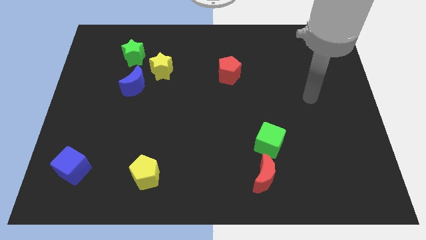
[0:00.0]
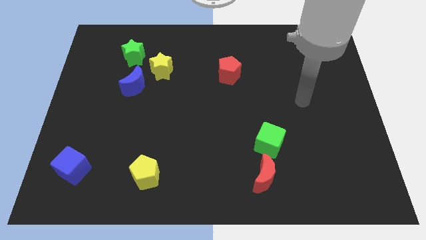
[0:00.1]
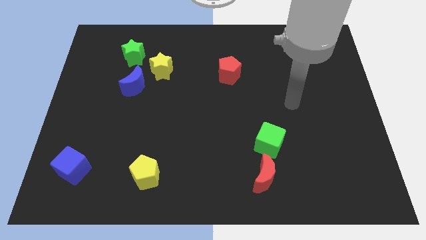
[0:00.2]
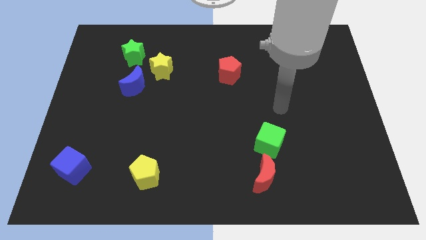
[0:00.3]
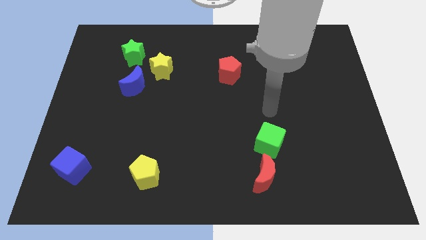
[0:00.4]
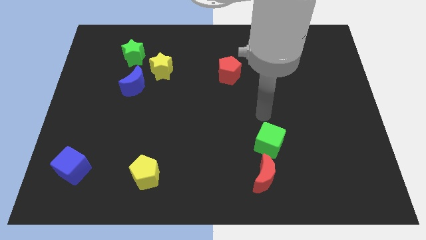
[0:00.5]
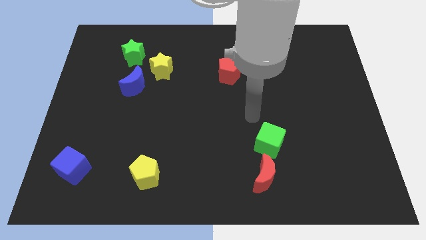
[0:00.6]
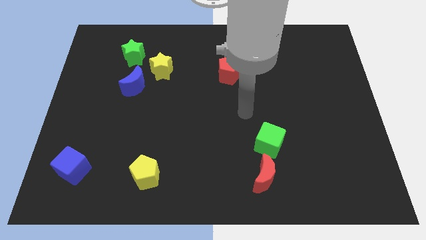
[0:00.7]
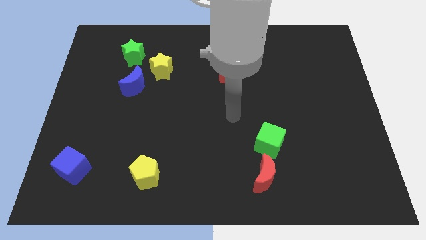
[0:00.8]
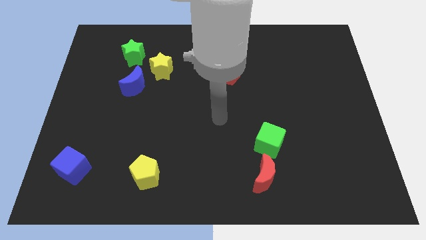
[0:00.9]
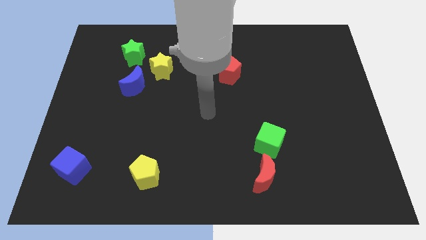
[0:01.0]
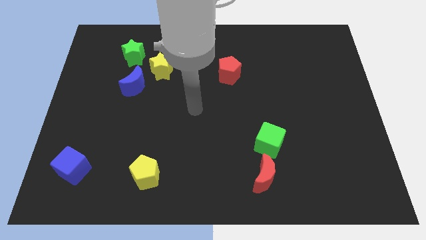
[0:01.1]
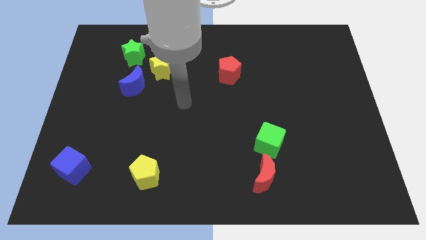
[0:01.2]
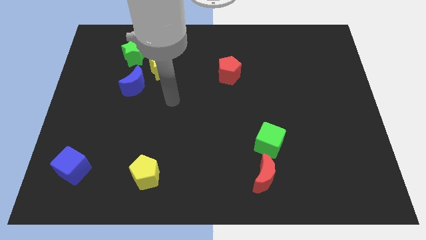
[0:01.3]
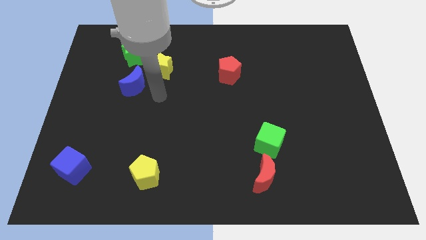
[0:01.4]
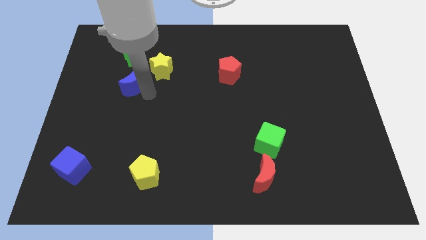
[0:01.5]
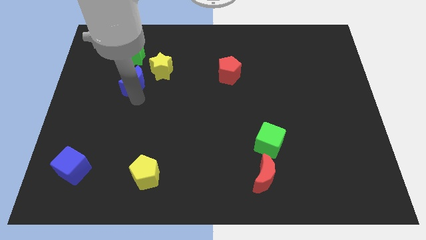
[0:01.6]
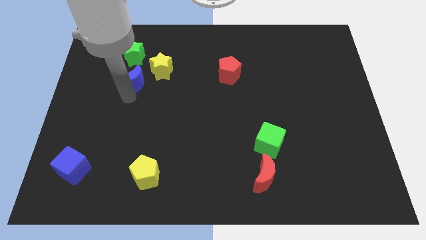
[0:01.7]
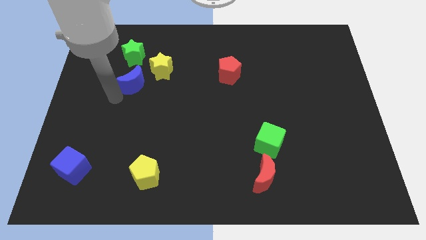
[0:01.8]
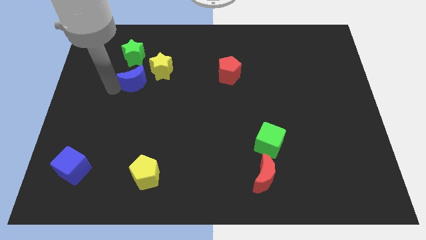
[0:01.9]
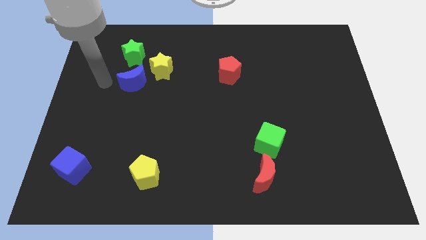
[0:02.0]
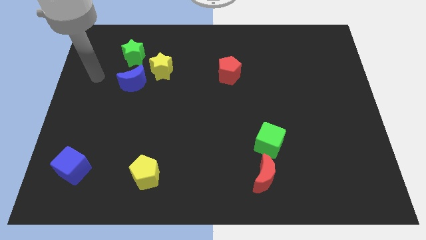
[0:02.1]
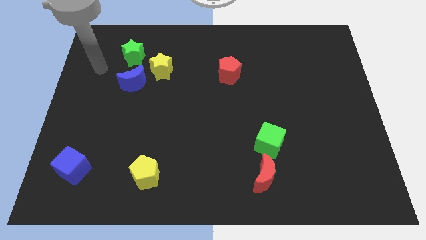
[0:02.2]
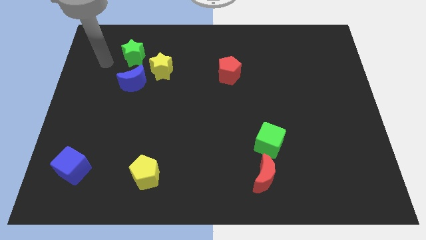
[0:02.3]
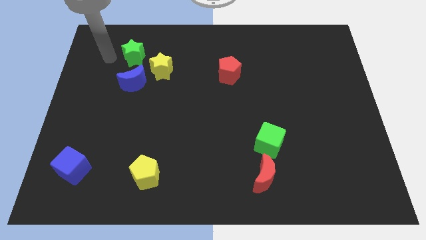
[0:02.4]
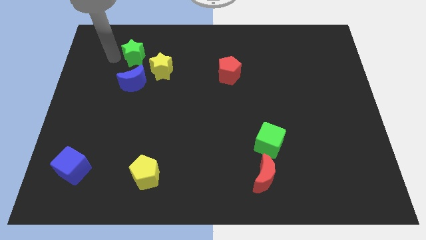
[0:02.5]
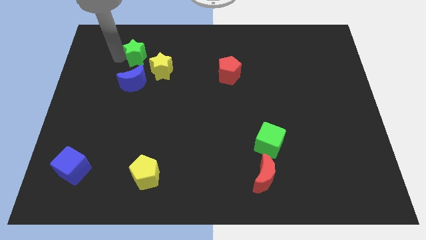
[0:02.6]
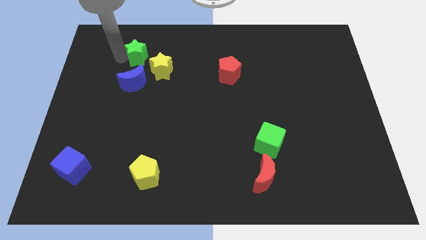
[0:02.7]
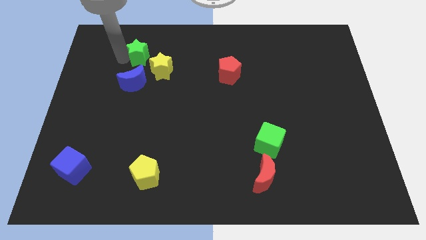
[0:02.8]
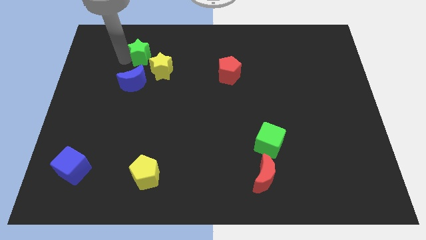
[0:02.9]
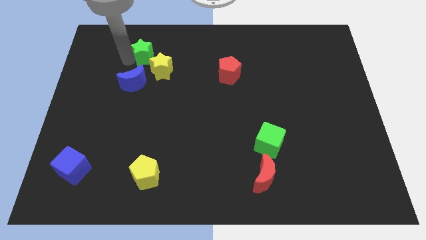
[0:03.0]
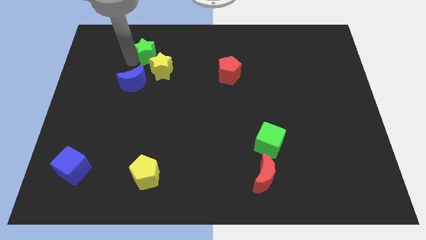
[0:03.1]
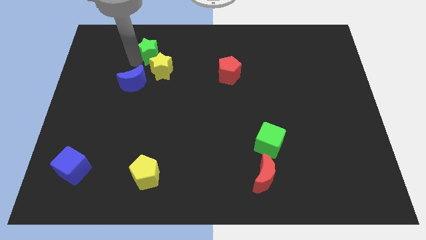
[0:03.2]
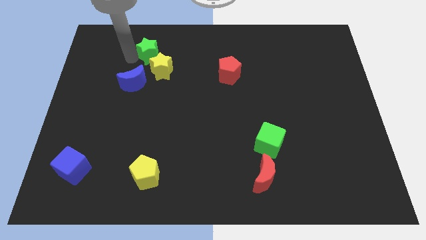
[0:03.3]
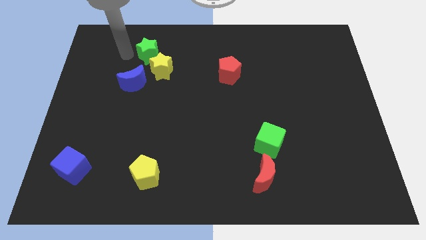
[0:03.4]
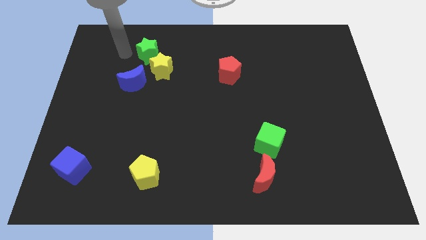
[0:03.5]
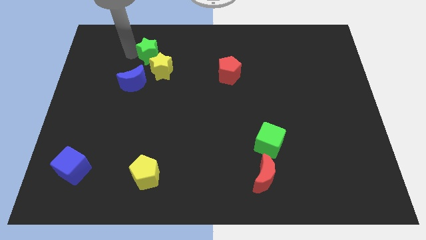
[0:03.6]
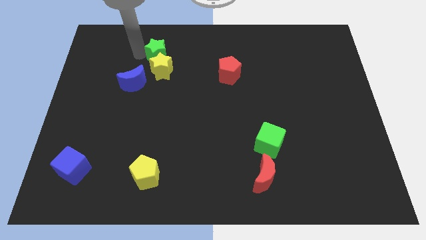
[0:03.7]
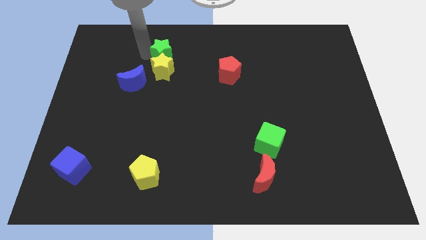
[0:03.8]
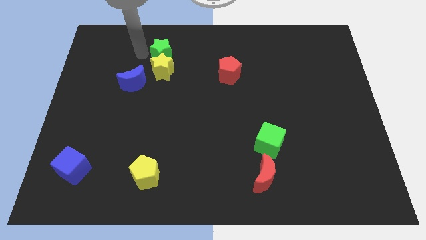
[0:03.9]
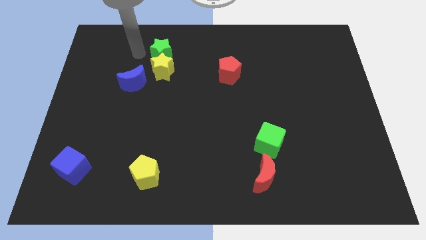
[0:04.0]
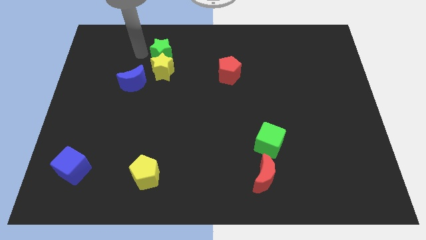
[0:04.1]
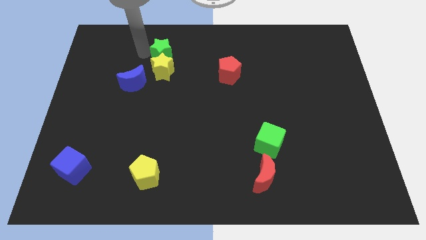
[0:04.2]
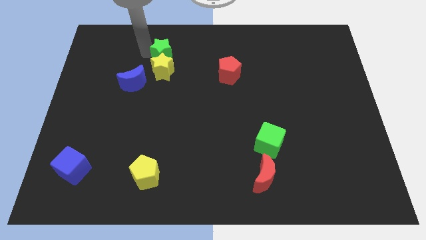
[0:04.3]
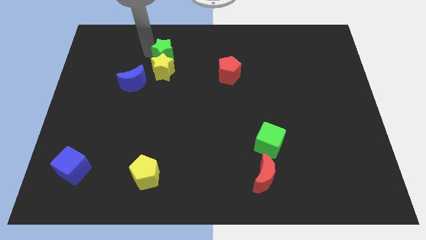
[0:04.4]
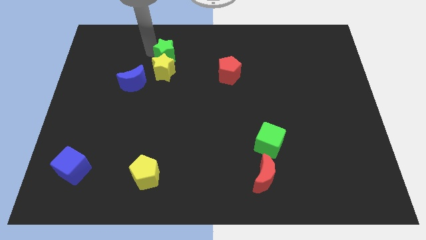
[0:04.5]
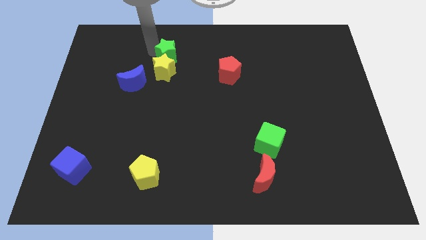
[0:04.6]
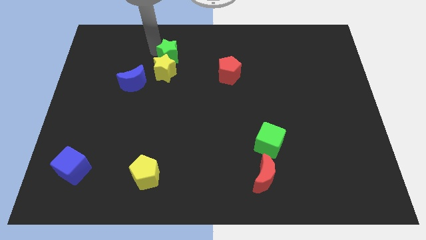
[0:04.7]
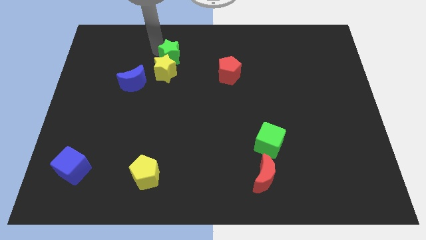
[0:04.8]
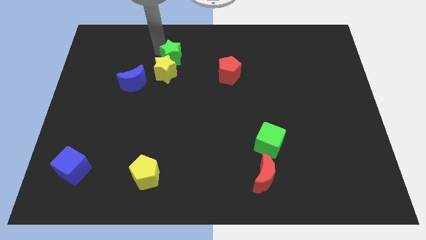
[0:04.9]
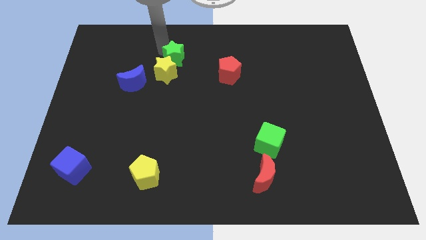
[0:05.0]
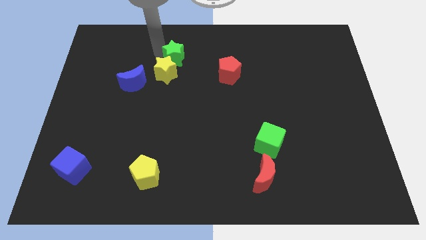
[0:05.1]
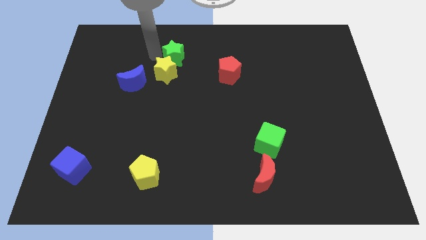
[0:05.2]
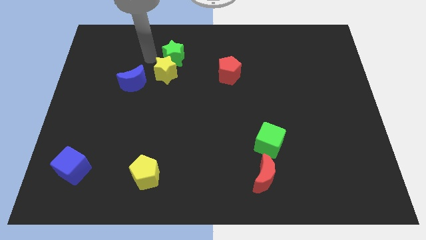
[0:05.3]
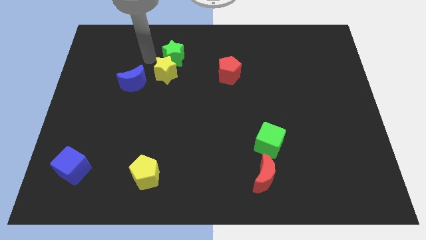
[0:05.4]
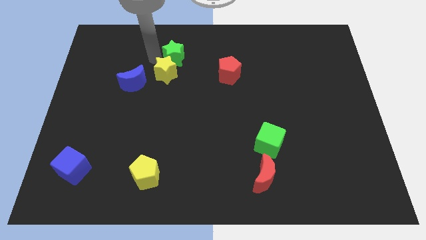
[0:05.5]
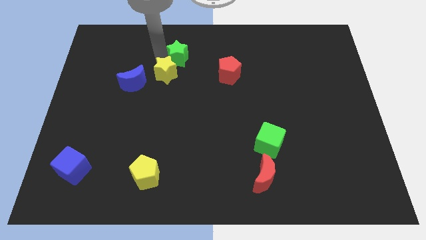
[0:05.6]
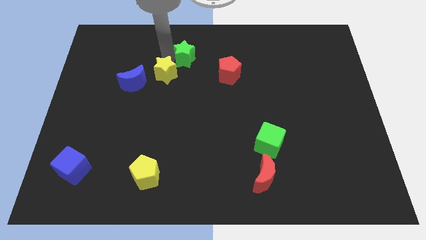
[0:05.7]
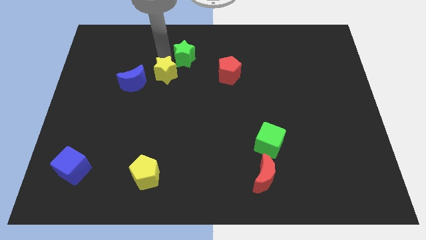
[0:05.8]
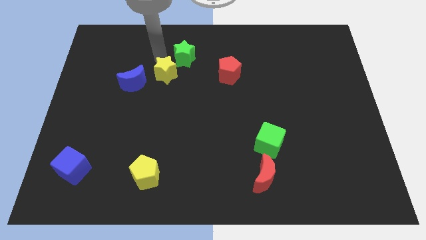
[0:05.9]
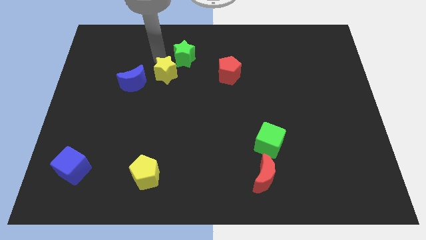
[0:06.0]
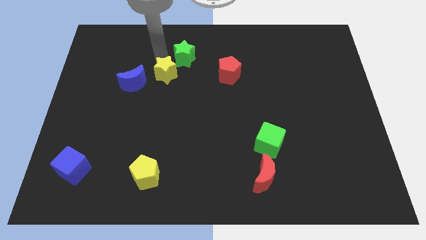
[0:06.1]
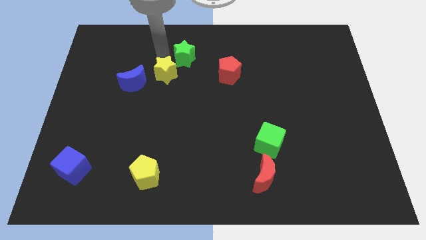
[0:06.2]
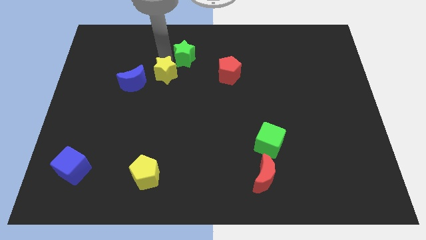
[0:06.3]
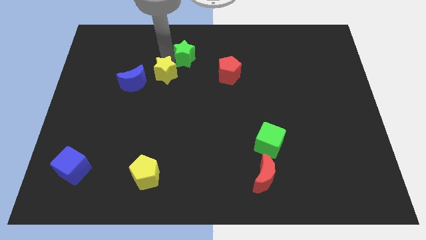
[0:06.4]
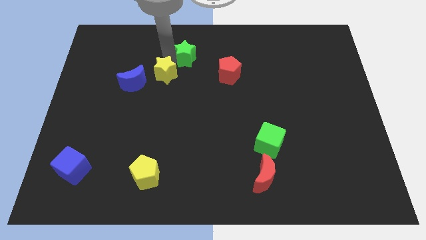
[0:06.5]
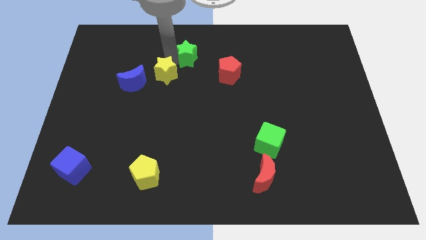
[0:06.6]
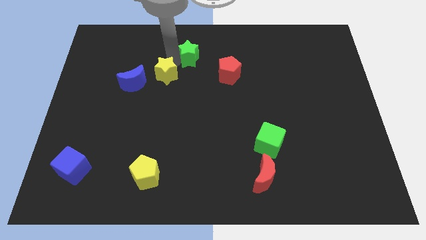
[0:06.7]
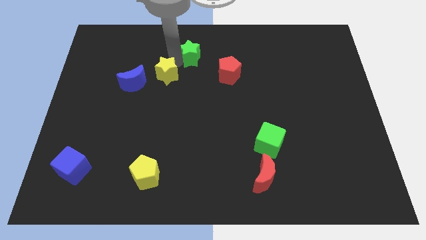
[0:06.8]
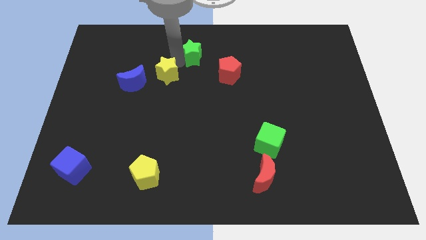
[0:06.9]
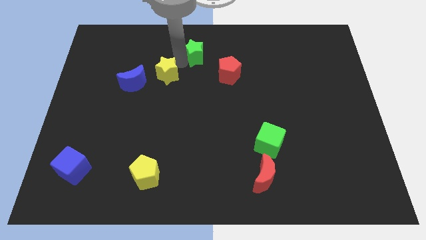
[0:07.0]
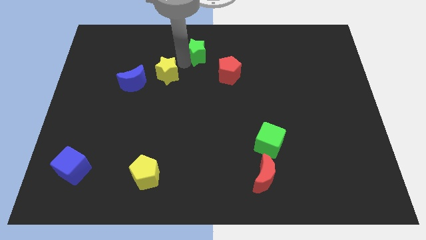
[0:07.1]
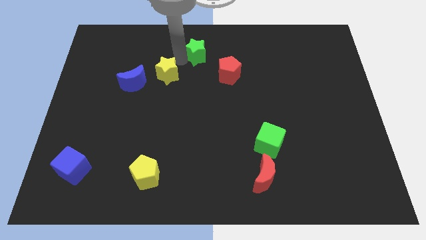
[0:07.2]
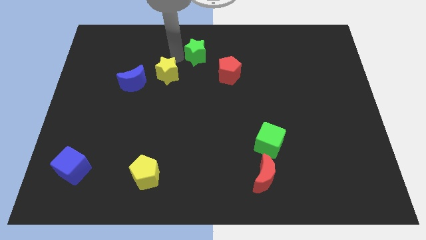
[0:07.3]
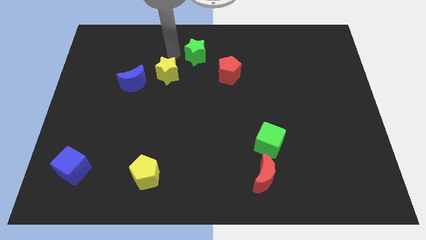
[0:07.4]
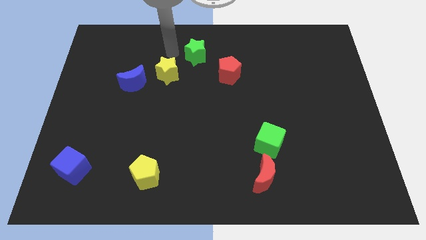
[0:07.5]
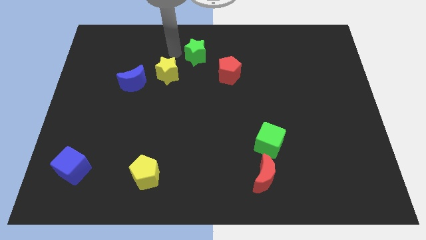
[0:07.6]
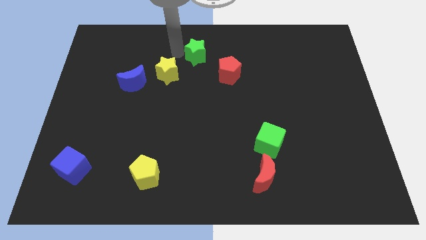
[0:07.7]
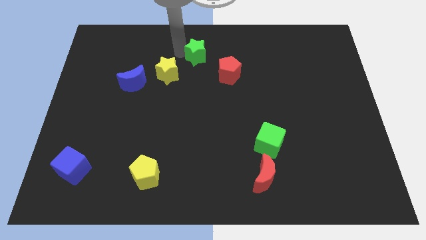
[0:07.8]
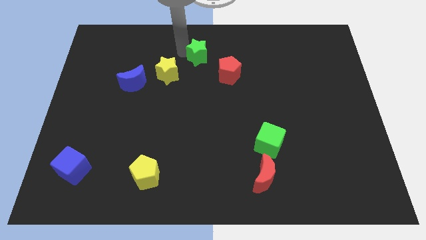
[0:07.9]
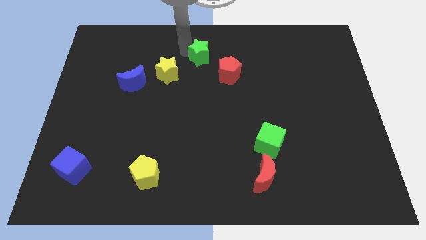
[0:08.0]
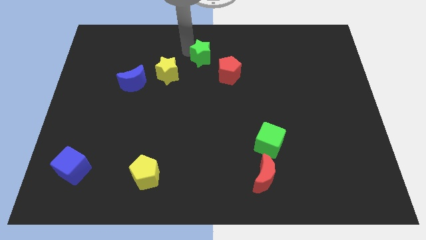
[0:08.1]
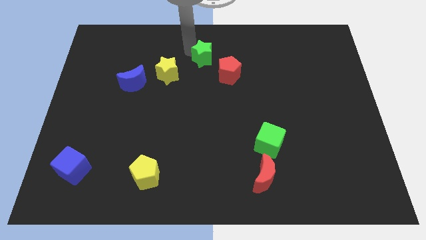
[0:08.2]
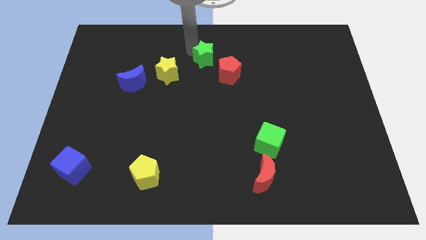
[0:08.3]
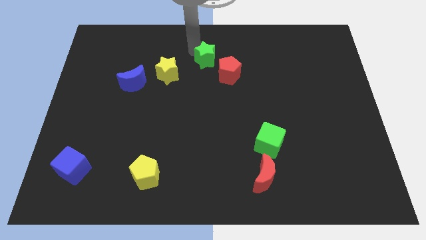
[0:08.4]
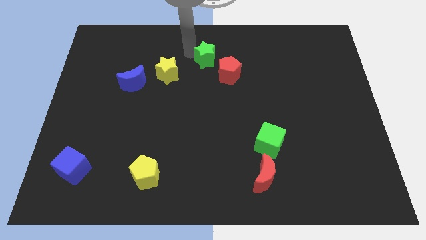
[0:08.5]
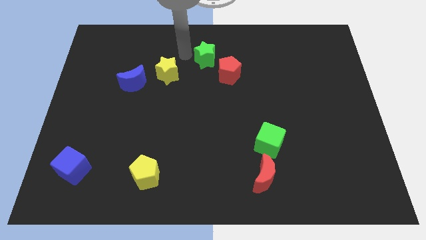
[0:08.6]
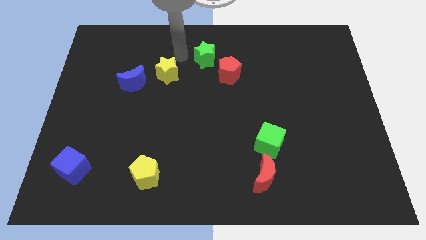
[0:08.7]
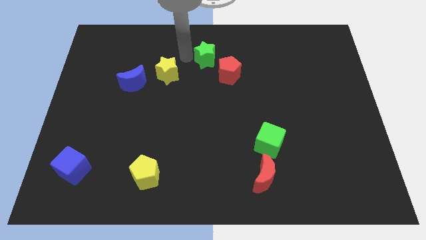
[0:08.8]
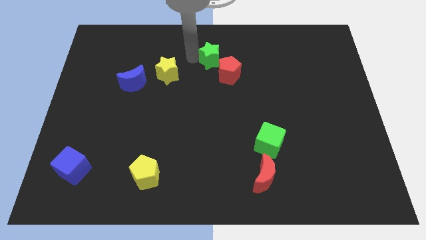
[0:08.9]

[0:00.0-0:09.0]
slide the green star right
